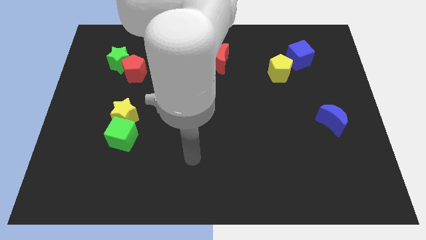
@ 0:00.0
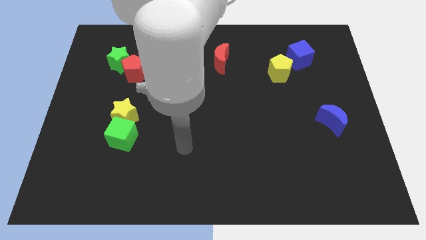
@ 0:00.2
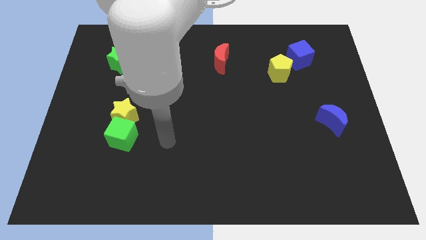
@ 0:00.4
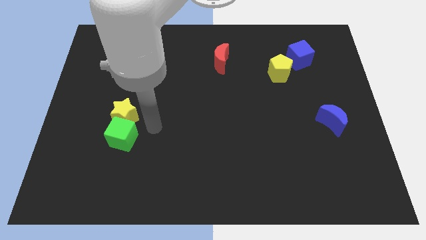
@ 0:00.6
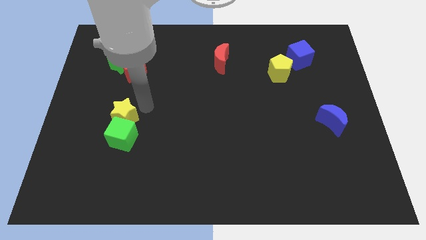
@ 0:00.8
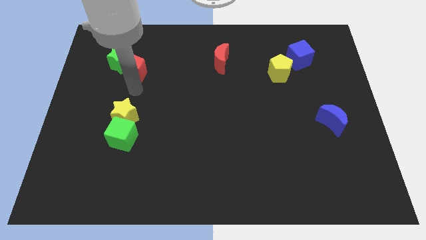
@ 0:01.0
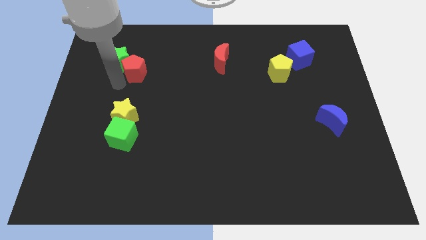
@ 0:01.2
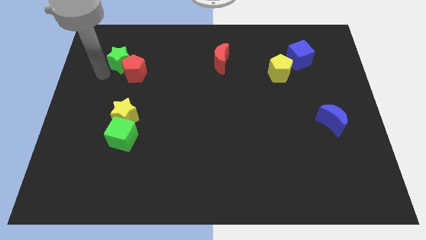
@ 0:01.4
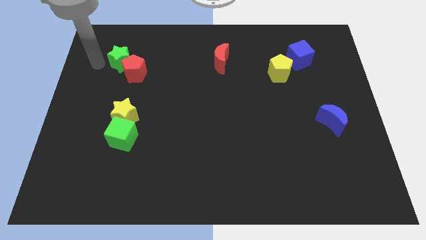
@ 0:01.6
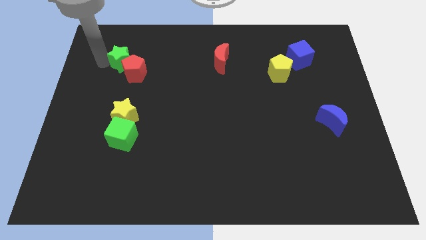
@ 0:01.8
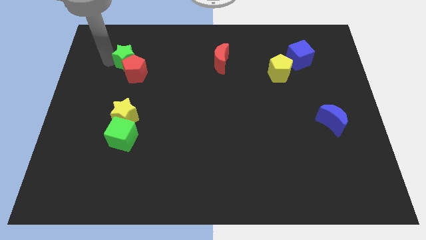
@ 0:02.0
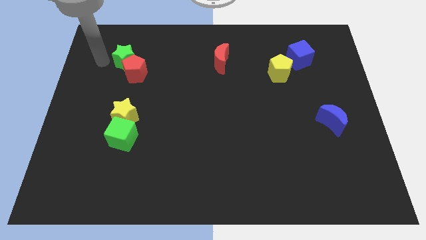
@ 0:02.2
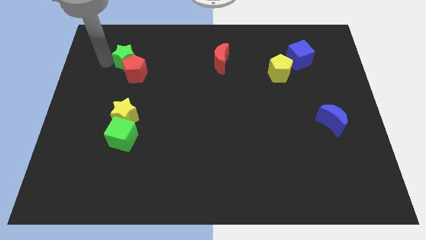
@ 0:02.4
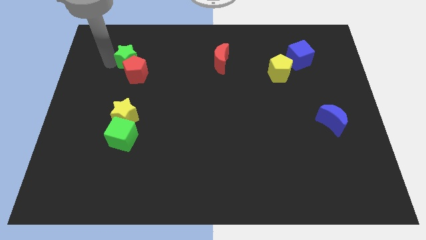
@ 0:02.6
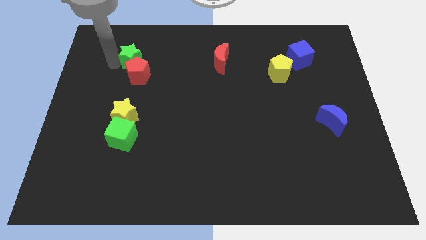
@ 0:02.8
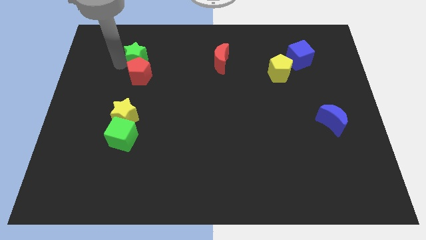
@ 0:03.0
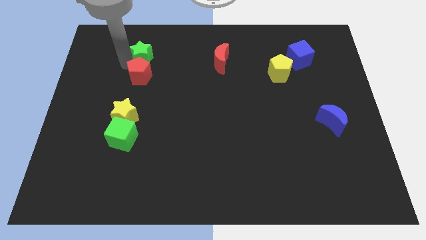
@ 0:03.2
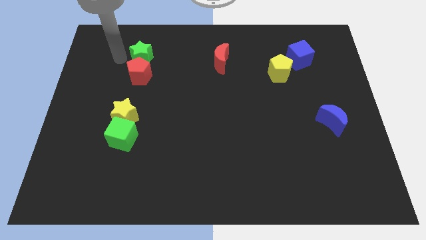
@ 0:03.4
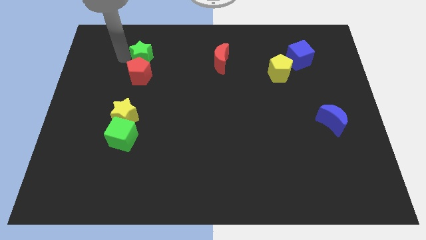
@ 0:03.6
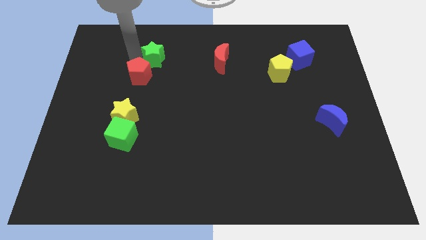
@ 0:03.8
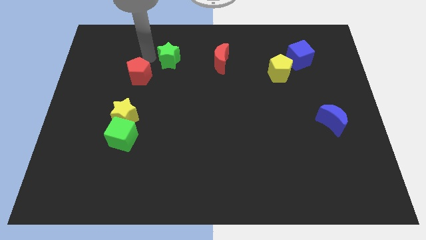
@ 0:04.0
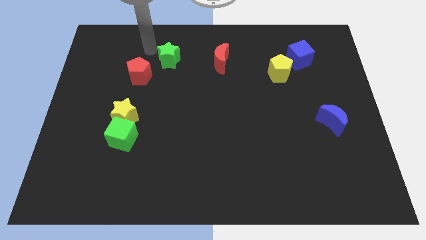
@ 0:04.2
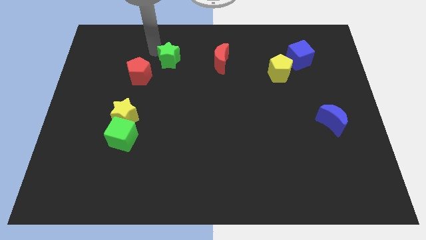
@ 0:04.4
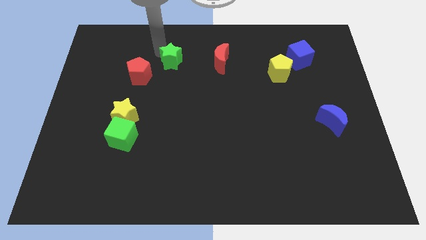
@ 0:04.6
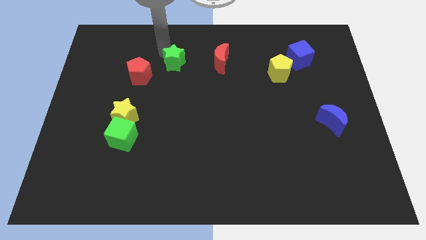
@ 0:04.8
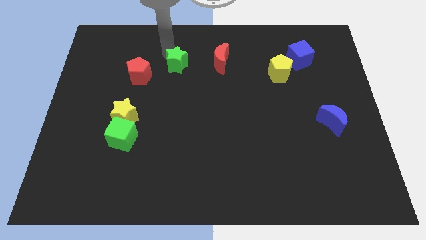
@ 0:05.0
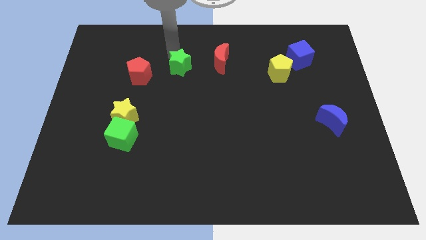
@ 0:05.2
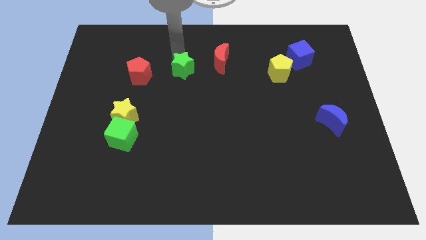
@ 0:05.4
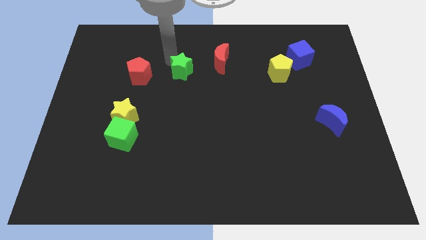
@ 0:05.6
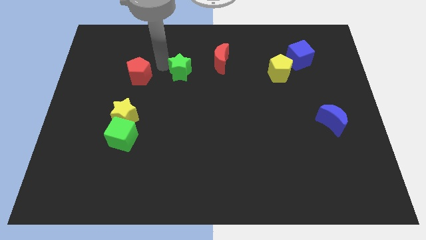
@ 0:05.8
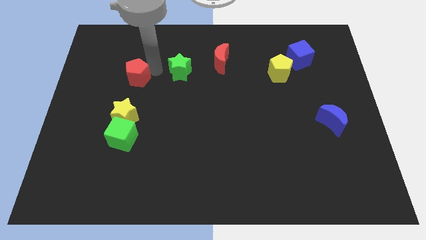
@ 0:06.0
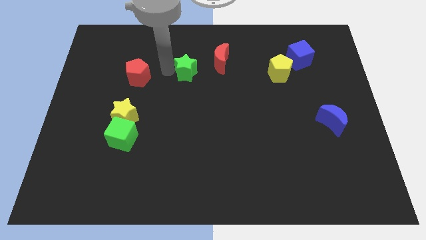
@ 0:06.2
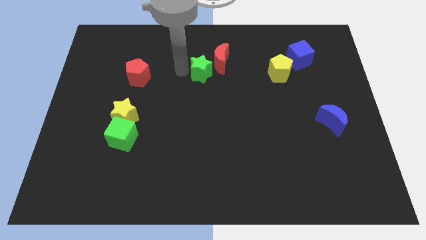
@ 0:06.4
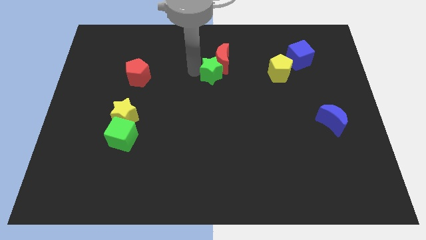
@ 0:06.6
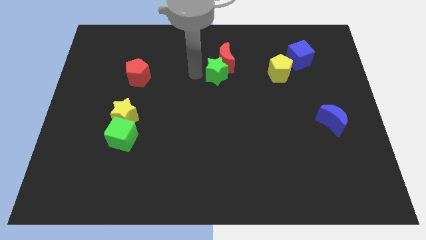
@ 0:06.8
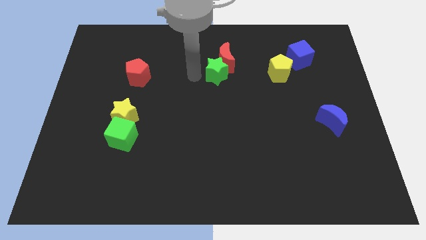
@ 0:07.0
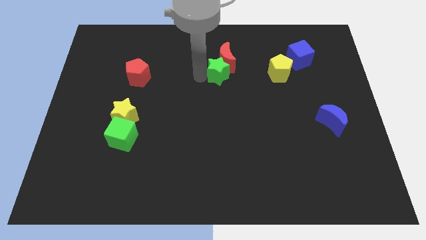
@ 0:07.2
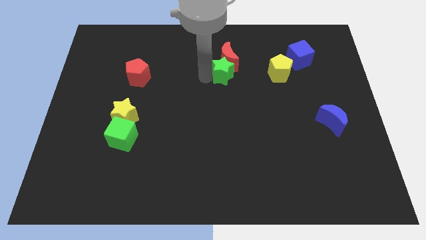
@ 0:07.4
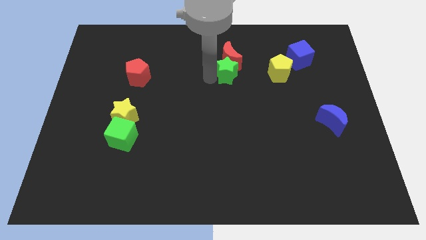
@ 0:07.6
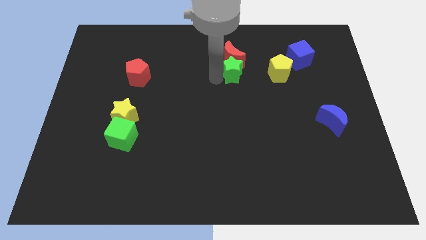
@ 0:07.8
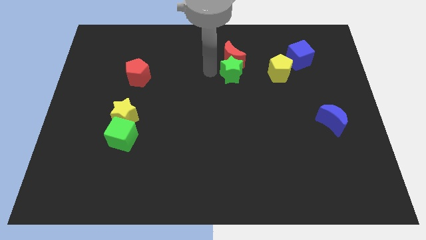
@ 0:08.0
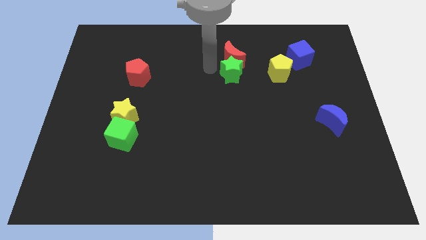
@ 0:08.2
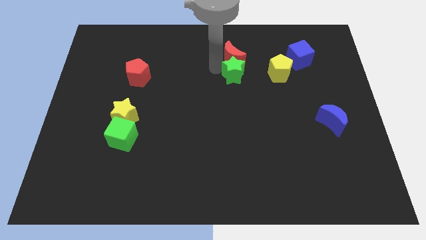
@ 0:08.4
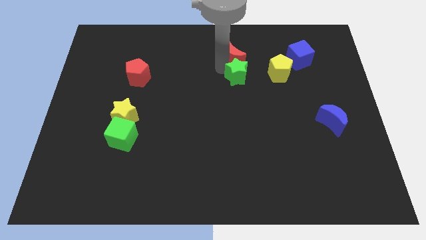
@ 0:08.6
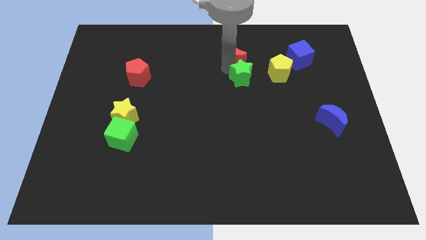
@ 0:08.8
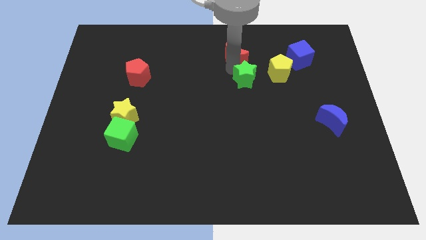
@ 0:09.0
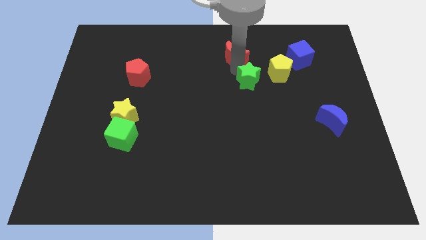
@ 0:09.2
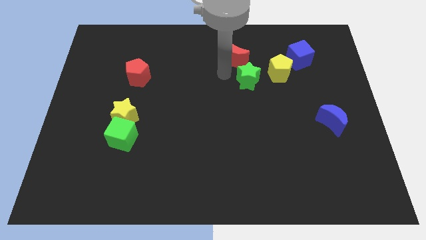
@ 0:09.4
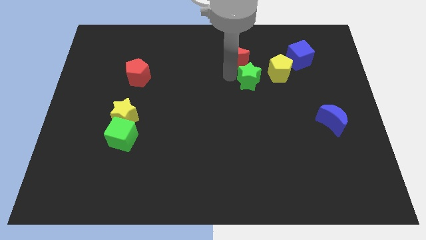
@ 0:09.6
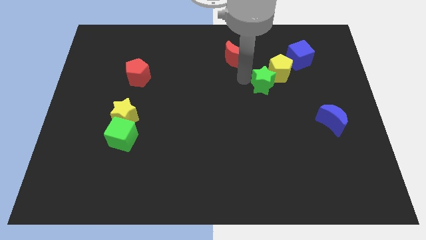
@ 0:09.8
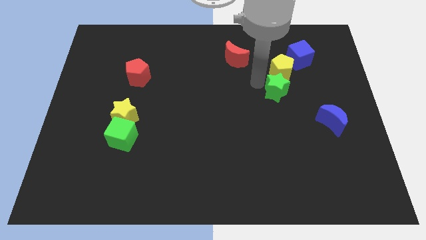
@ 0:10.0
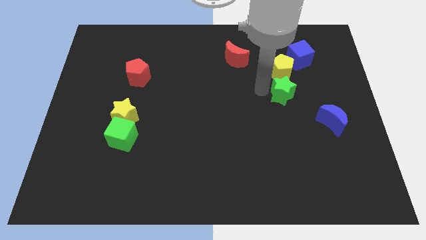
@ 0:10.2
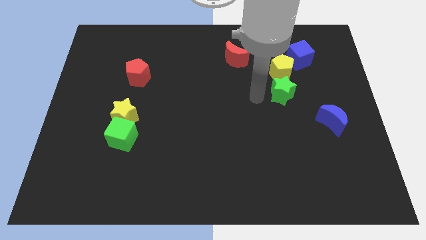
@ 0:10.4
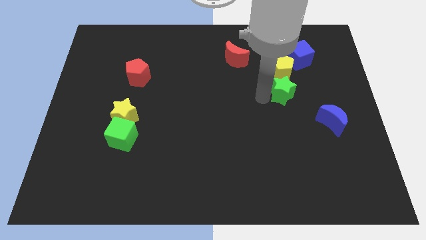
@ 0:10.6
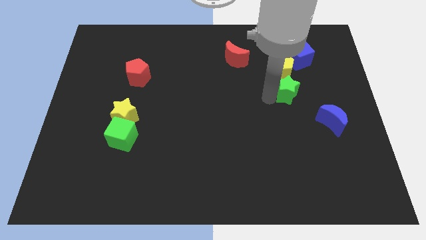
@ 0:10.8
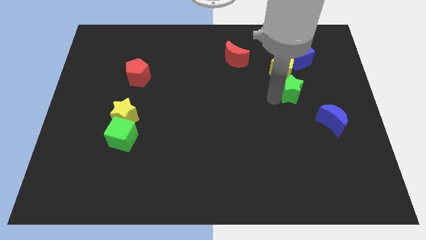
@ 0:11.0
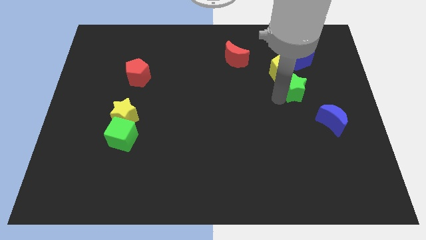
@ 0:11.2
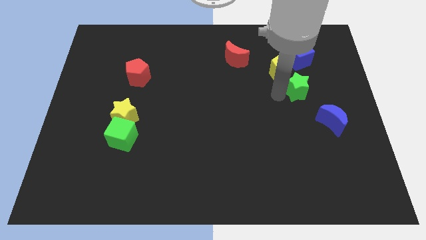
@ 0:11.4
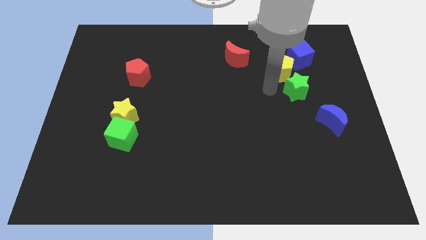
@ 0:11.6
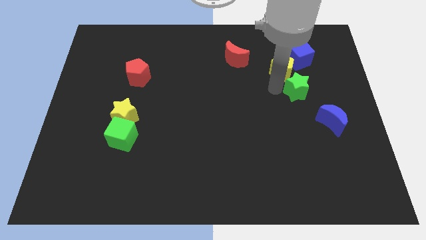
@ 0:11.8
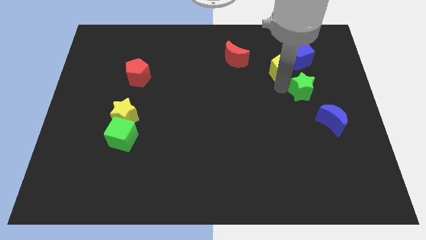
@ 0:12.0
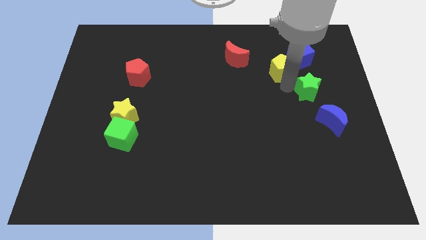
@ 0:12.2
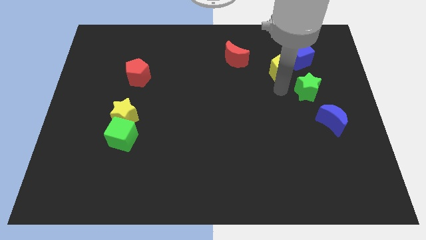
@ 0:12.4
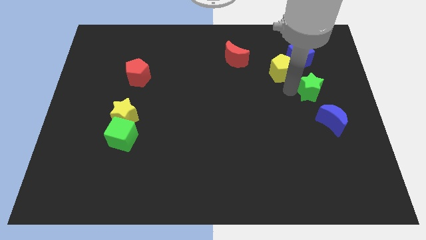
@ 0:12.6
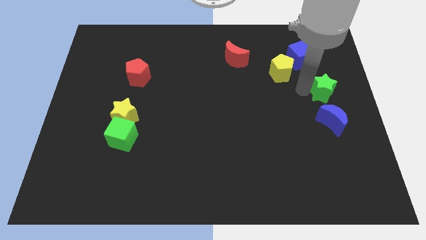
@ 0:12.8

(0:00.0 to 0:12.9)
move the green star to the right side
